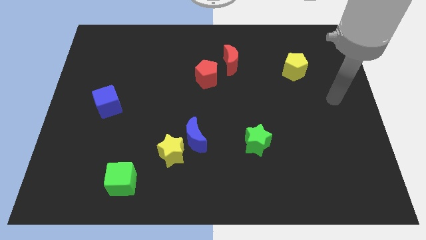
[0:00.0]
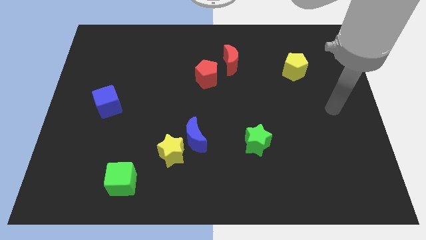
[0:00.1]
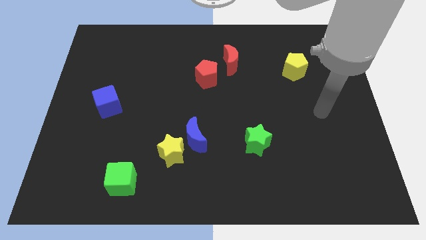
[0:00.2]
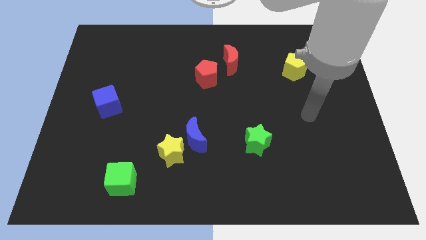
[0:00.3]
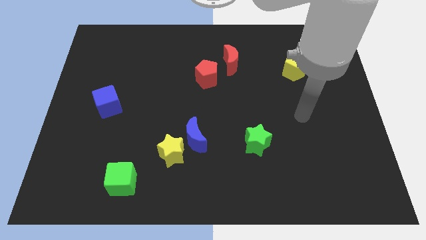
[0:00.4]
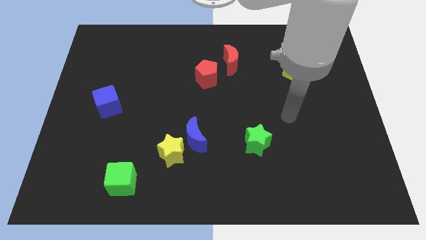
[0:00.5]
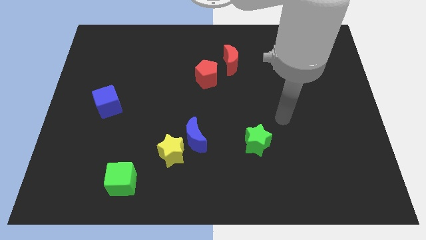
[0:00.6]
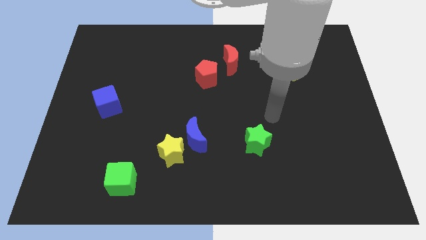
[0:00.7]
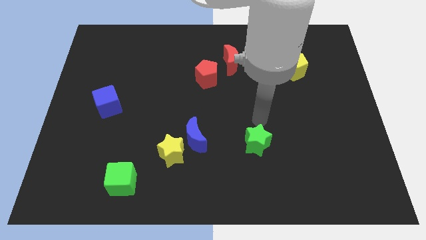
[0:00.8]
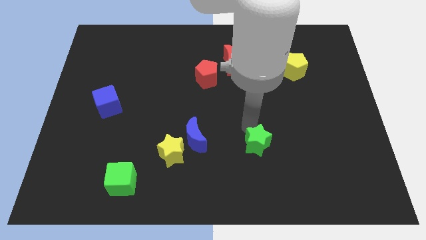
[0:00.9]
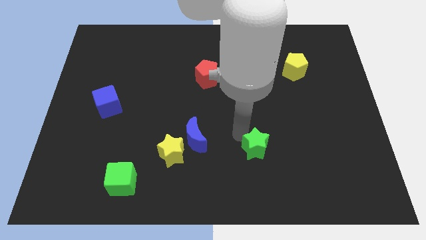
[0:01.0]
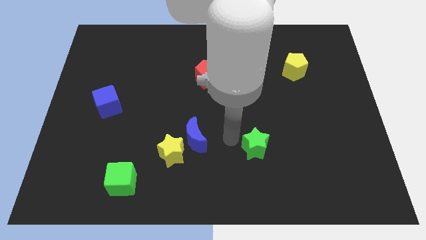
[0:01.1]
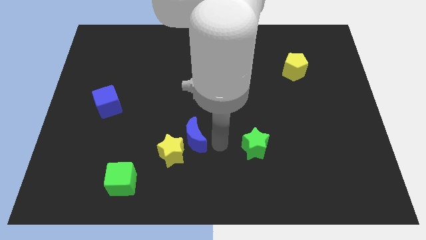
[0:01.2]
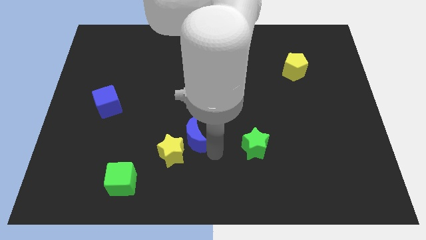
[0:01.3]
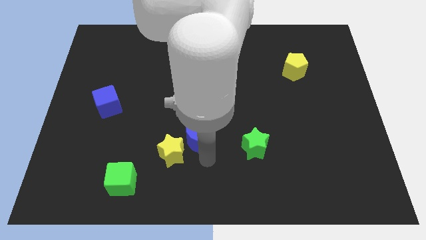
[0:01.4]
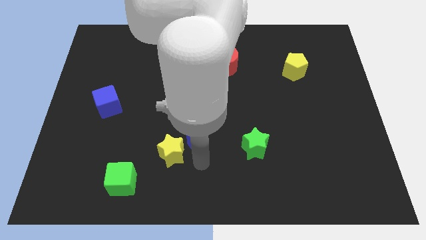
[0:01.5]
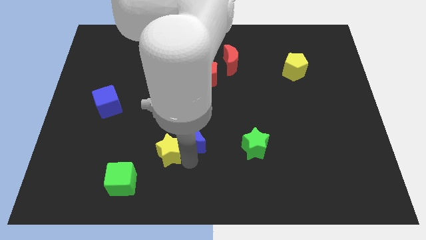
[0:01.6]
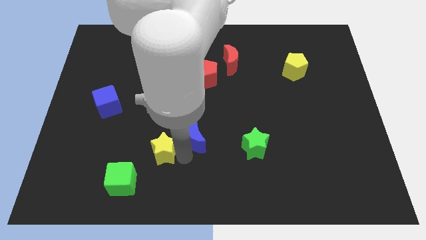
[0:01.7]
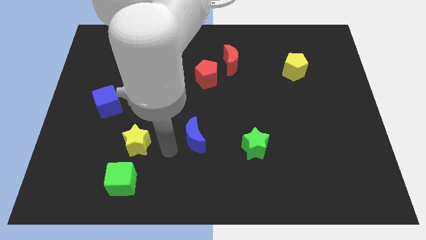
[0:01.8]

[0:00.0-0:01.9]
separate the blue moon from the yellow star

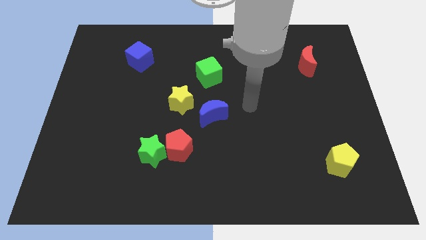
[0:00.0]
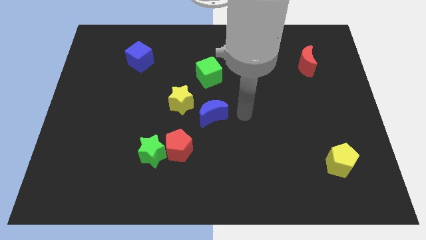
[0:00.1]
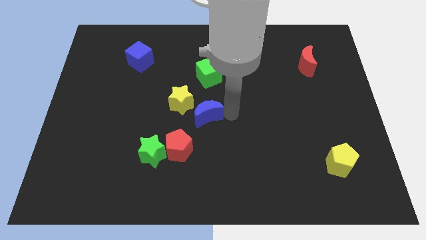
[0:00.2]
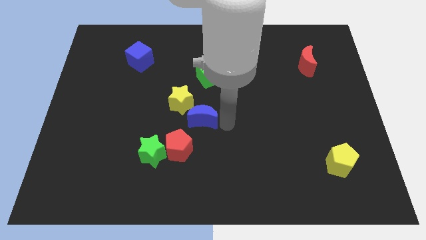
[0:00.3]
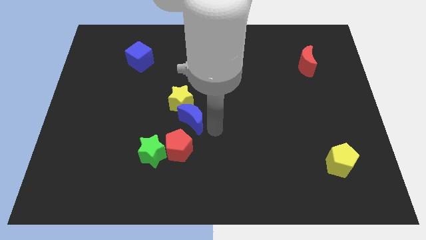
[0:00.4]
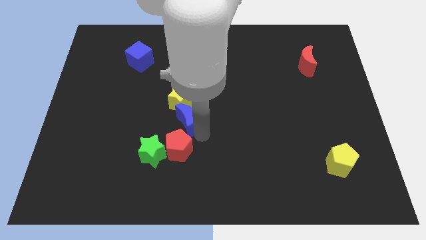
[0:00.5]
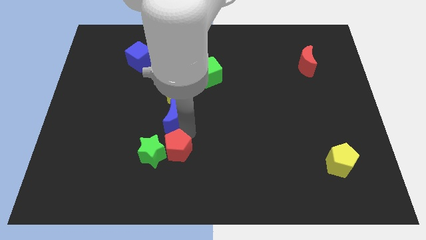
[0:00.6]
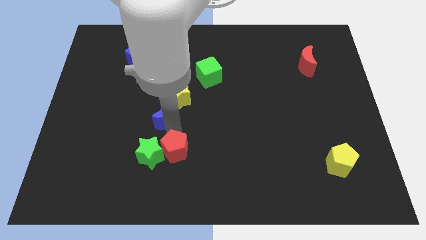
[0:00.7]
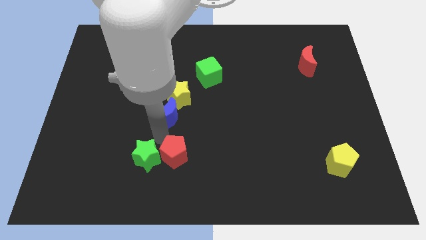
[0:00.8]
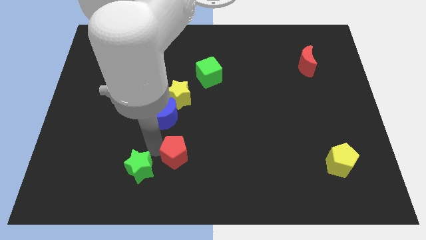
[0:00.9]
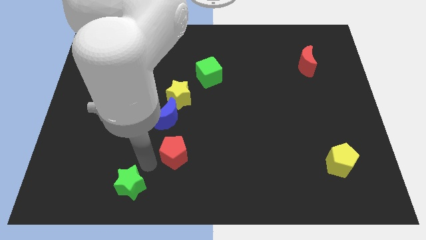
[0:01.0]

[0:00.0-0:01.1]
move the red pentagon away from the green star

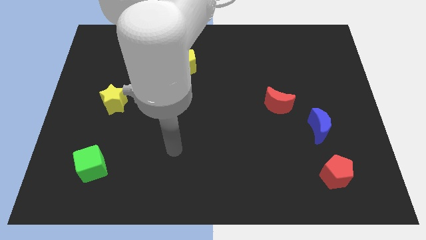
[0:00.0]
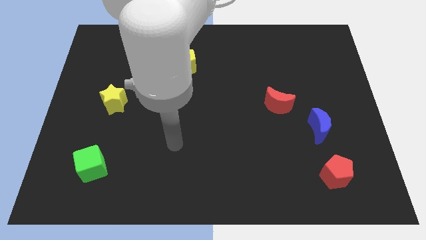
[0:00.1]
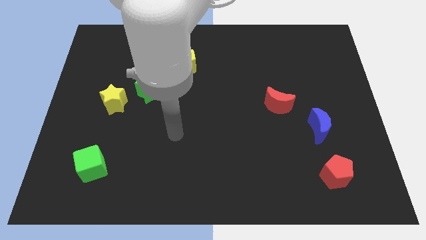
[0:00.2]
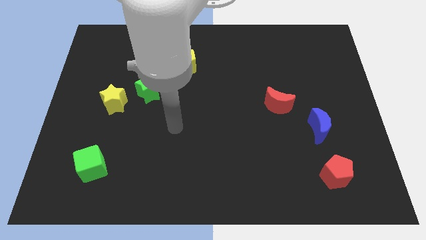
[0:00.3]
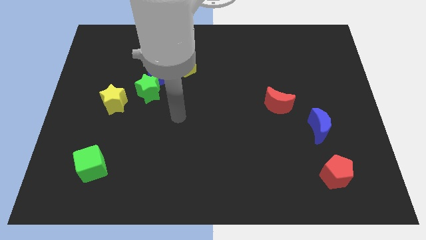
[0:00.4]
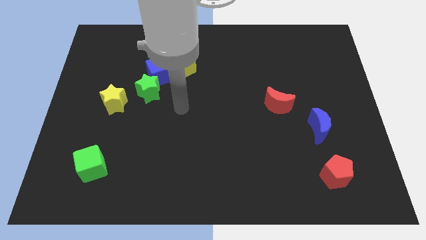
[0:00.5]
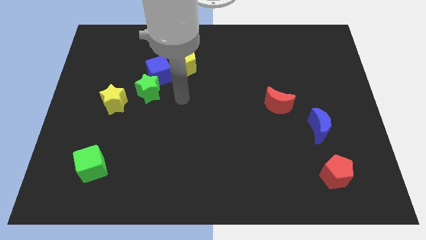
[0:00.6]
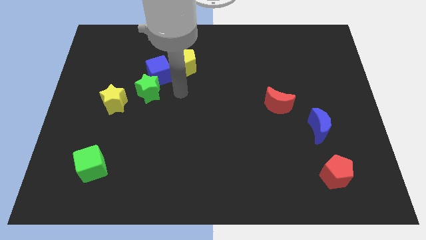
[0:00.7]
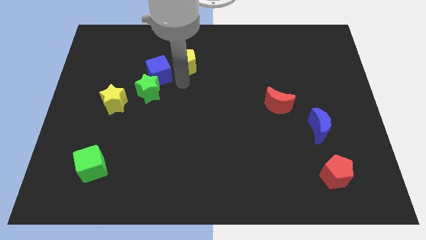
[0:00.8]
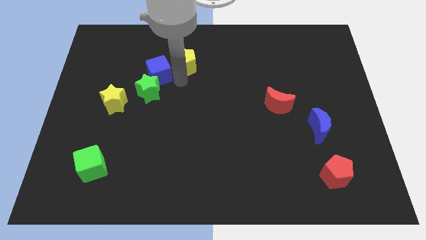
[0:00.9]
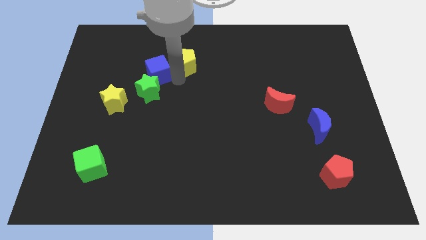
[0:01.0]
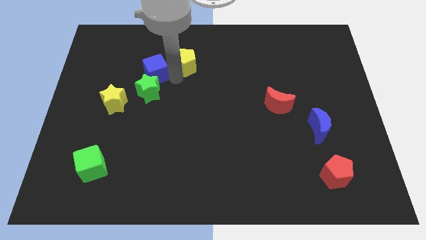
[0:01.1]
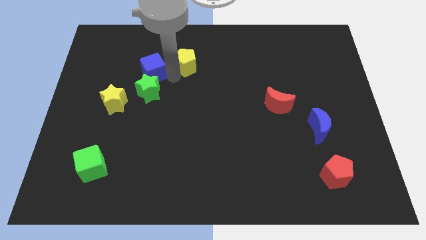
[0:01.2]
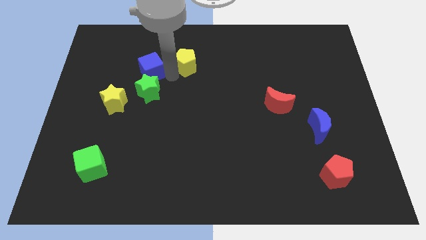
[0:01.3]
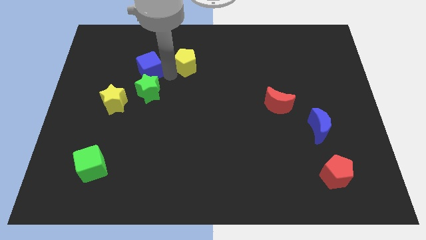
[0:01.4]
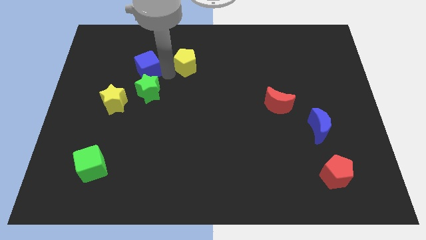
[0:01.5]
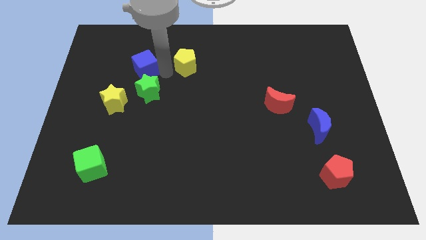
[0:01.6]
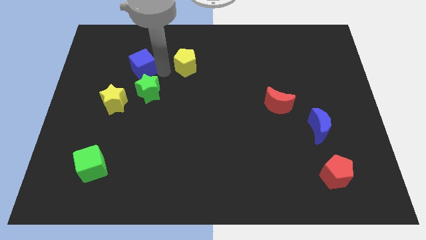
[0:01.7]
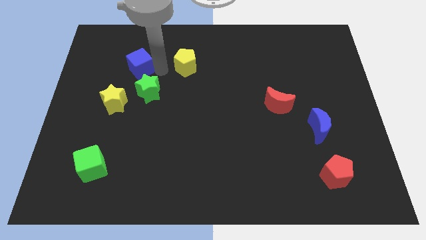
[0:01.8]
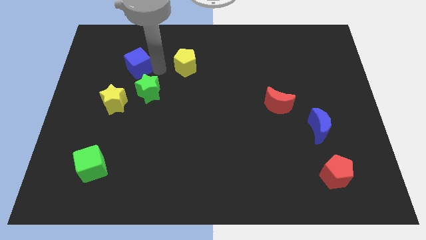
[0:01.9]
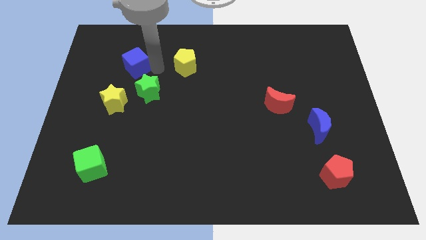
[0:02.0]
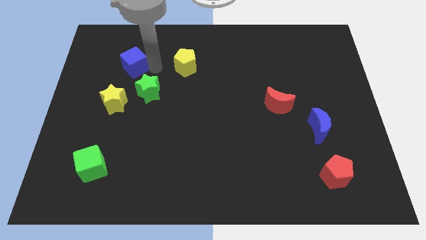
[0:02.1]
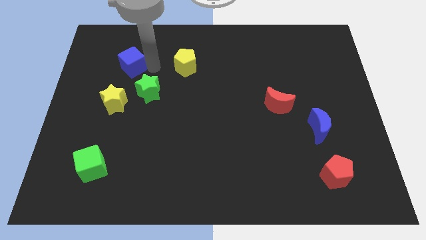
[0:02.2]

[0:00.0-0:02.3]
separate the blue cube from the green star and yellow pentagon

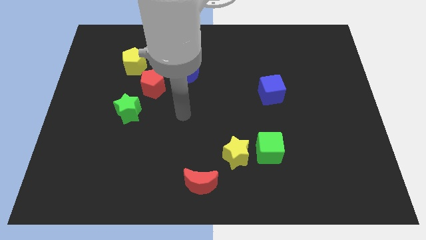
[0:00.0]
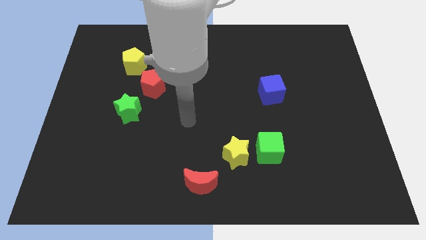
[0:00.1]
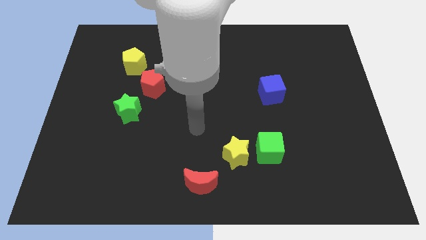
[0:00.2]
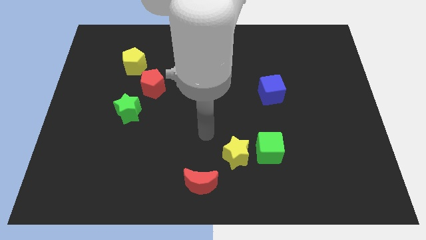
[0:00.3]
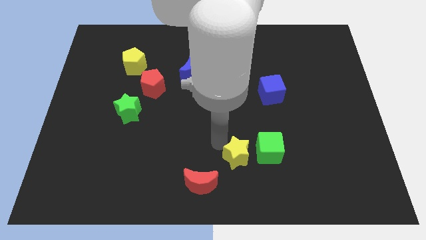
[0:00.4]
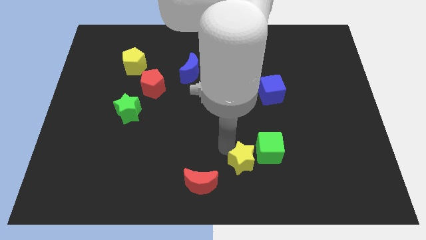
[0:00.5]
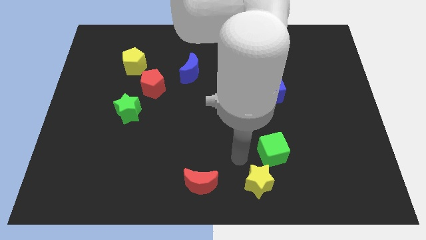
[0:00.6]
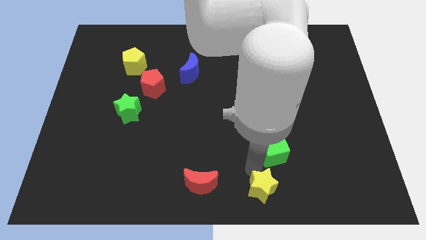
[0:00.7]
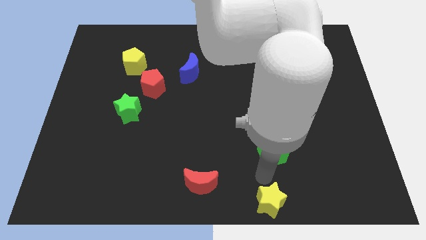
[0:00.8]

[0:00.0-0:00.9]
separate the green cube from the yellow star

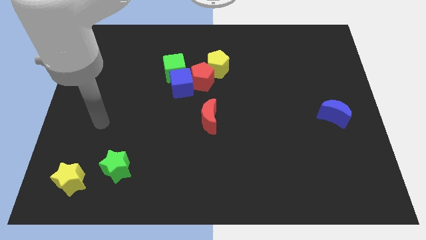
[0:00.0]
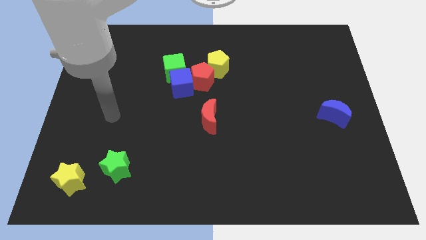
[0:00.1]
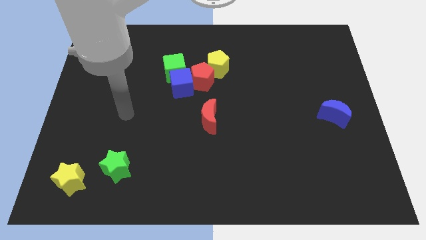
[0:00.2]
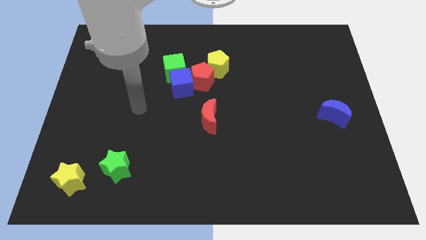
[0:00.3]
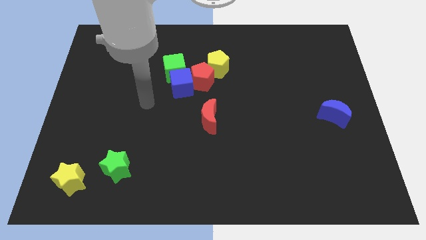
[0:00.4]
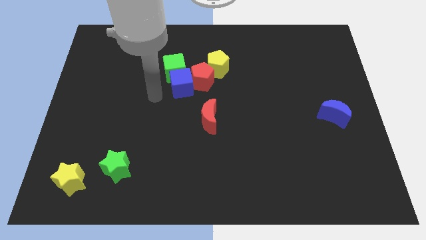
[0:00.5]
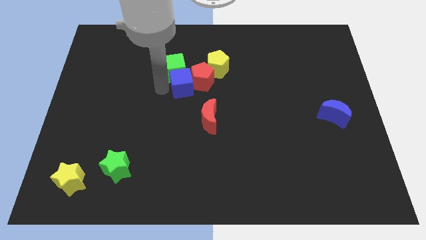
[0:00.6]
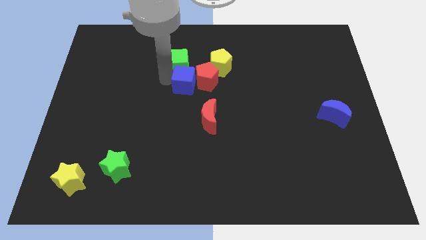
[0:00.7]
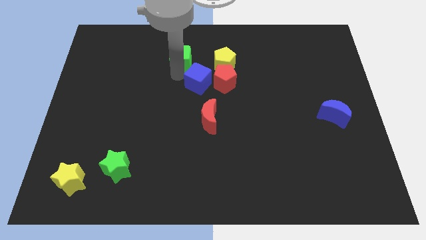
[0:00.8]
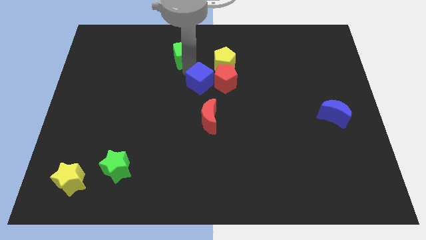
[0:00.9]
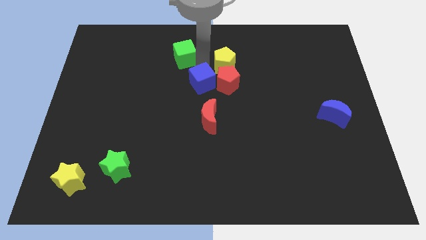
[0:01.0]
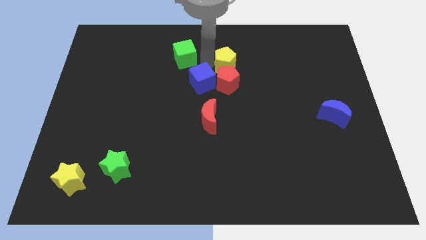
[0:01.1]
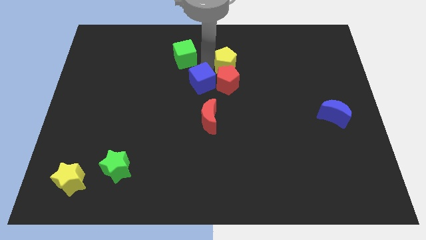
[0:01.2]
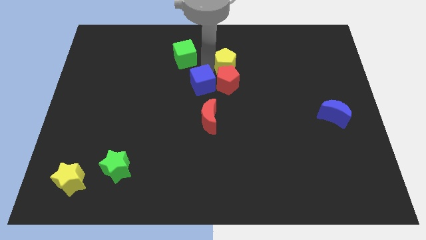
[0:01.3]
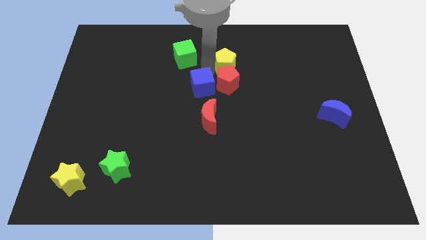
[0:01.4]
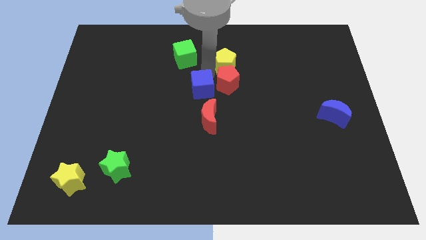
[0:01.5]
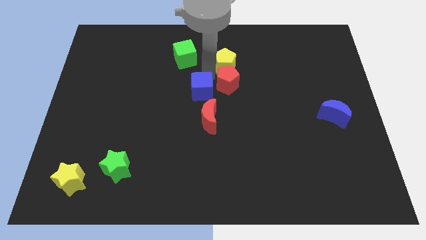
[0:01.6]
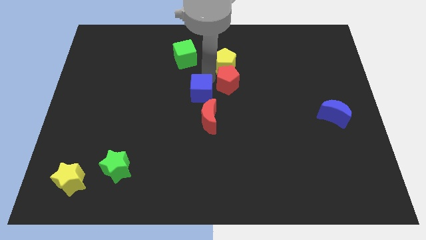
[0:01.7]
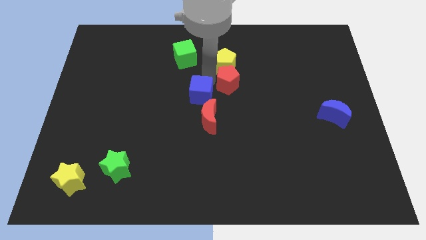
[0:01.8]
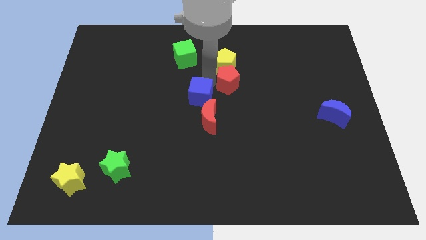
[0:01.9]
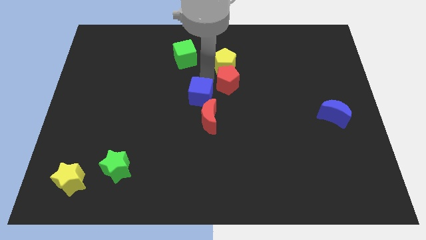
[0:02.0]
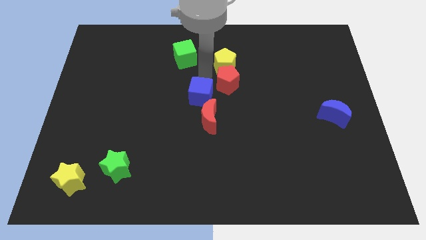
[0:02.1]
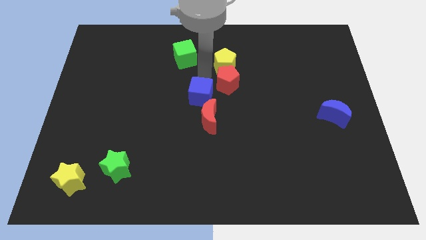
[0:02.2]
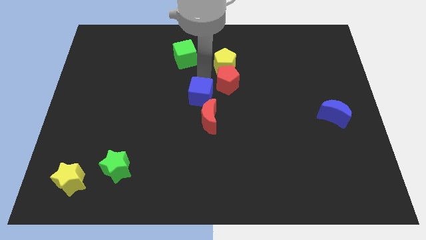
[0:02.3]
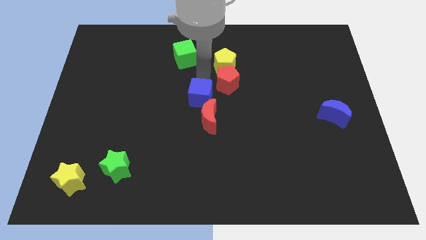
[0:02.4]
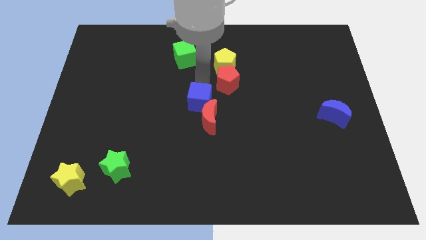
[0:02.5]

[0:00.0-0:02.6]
pull the blue cube apart from the green cube and red pentagon

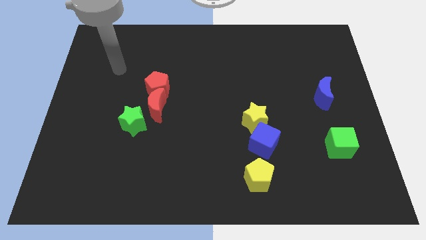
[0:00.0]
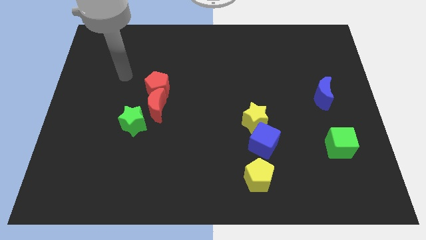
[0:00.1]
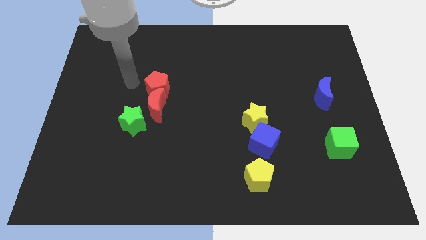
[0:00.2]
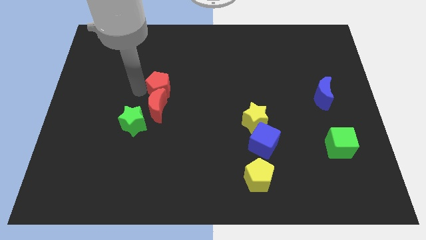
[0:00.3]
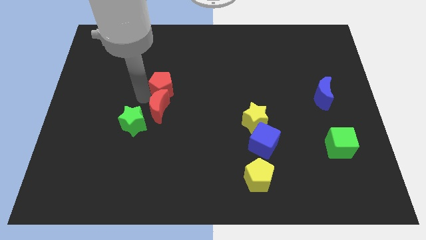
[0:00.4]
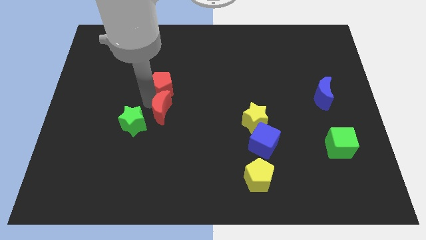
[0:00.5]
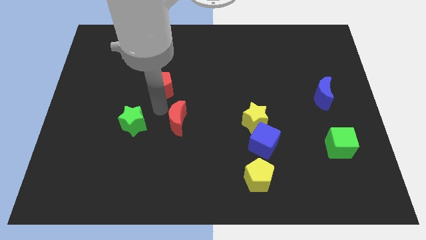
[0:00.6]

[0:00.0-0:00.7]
pull the red pentagon apart from the red moon
